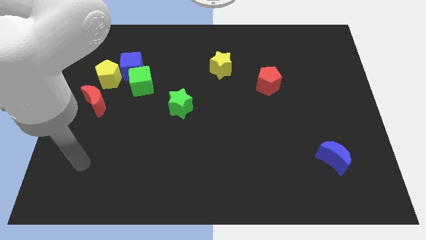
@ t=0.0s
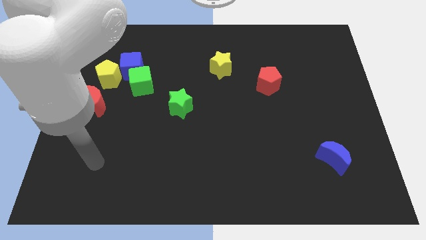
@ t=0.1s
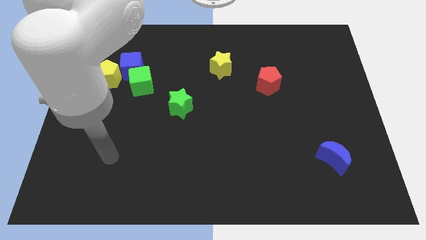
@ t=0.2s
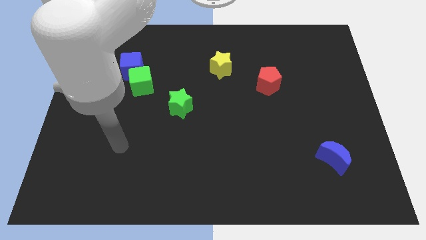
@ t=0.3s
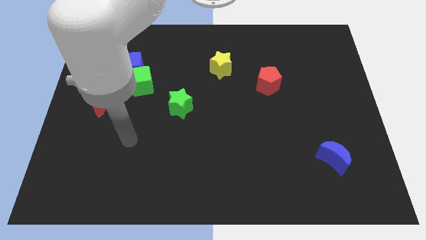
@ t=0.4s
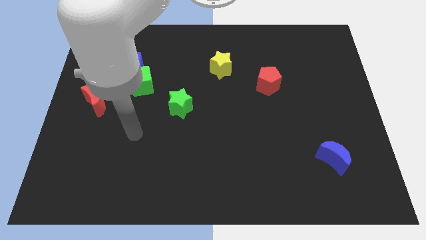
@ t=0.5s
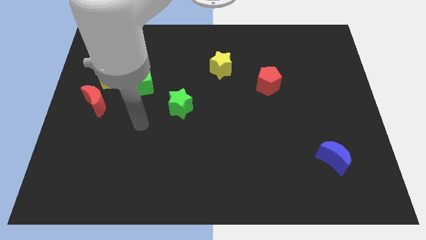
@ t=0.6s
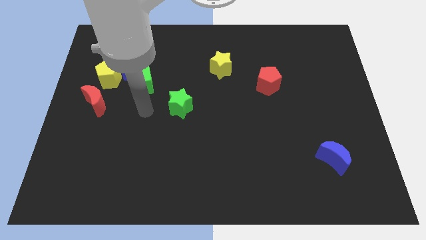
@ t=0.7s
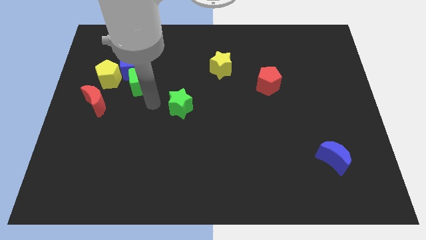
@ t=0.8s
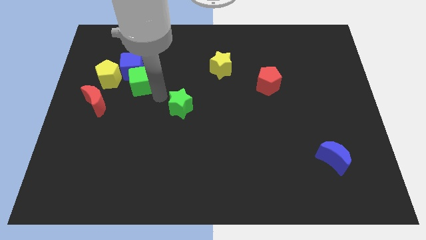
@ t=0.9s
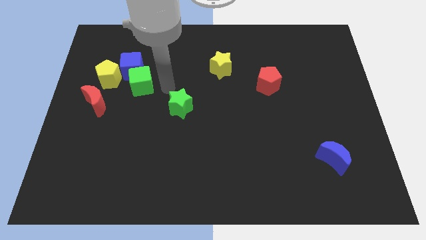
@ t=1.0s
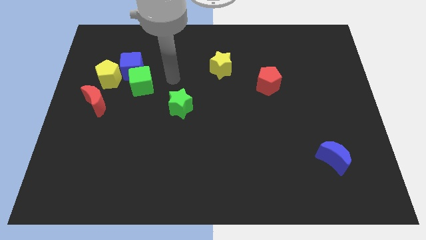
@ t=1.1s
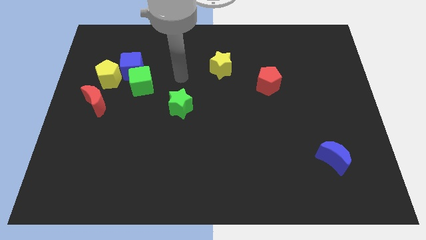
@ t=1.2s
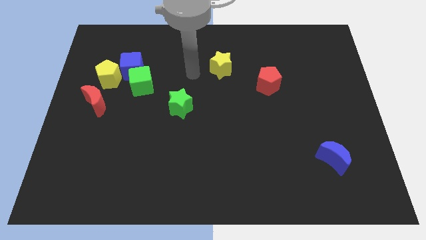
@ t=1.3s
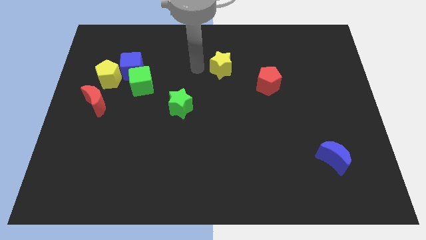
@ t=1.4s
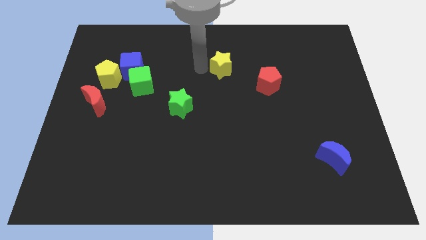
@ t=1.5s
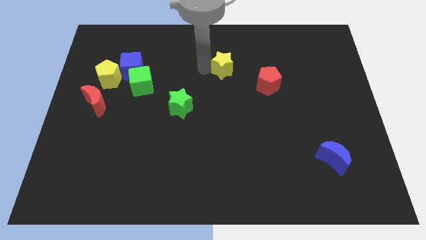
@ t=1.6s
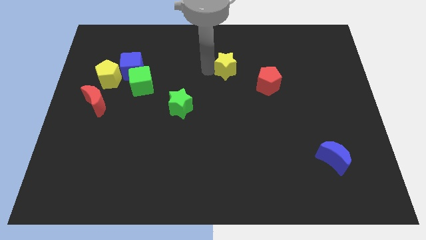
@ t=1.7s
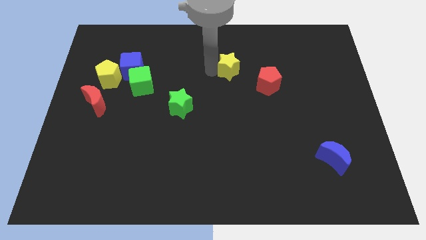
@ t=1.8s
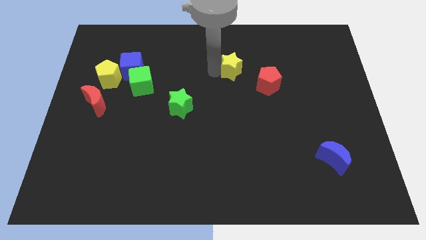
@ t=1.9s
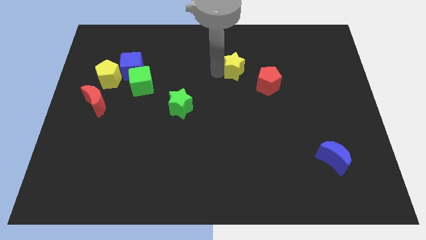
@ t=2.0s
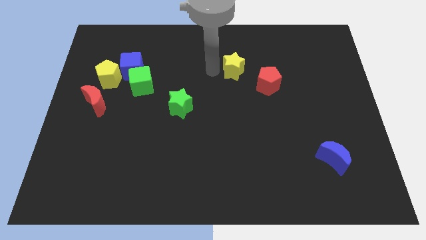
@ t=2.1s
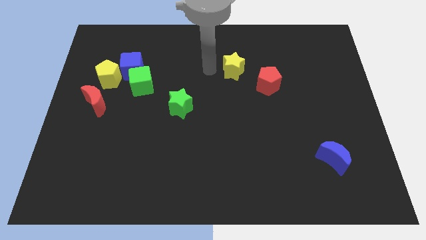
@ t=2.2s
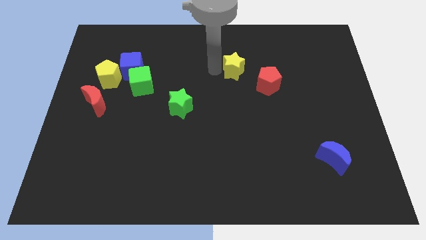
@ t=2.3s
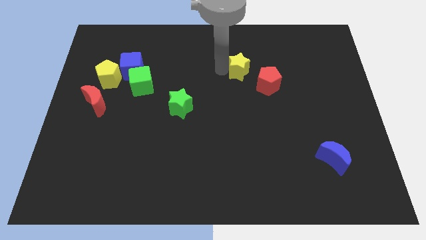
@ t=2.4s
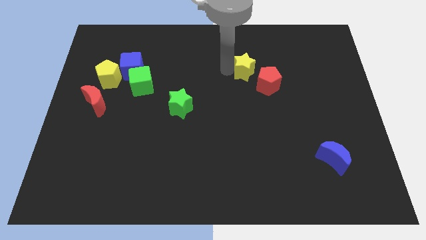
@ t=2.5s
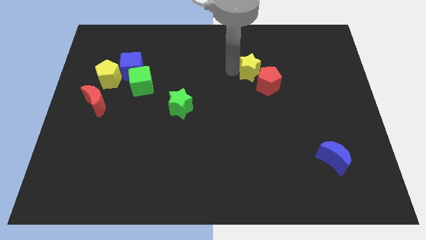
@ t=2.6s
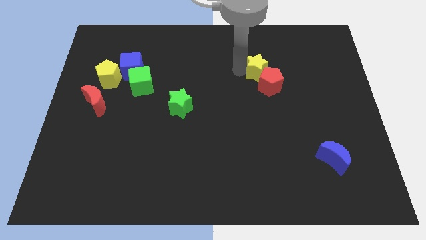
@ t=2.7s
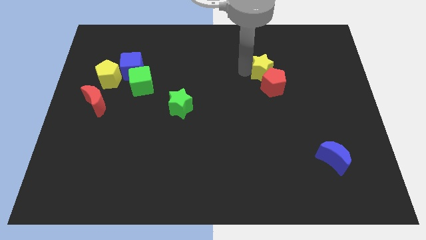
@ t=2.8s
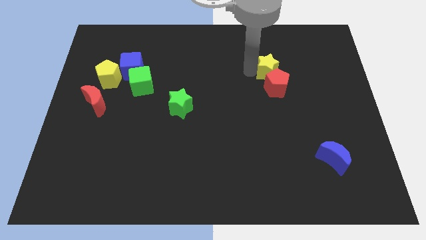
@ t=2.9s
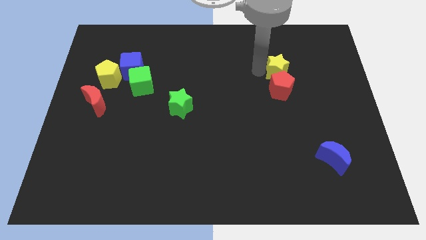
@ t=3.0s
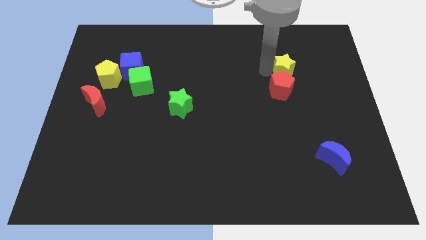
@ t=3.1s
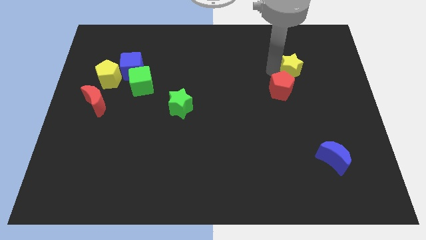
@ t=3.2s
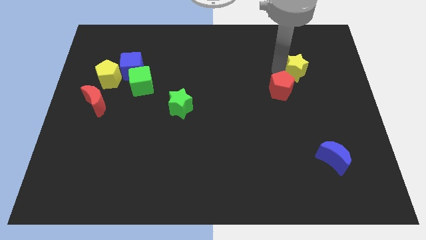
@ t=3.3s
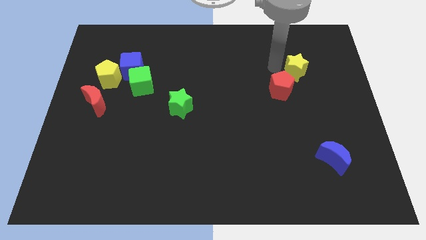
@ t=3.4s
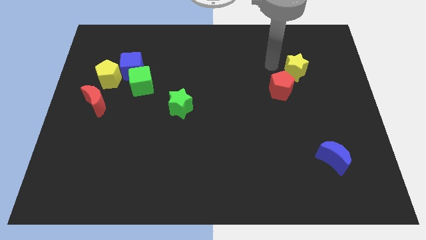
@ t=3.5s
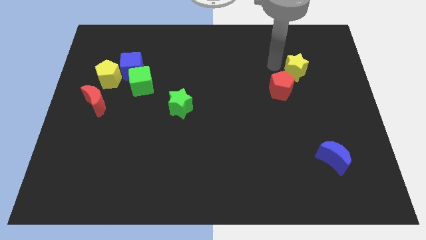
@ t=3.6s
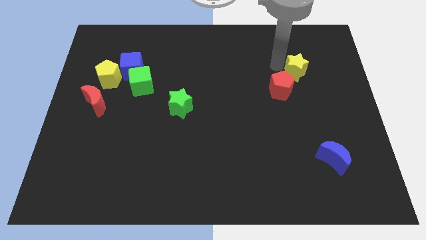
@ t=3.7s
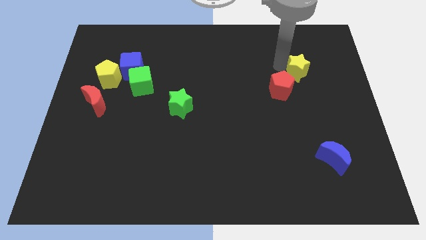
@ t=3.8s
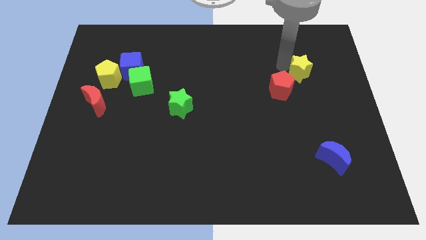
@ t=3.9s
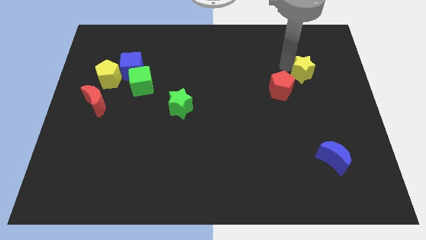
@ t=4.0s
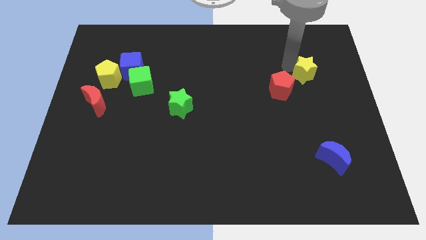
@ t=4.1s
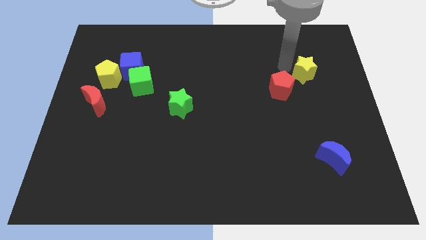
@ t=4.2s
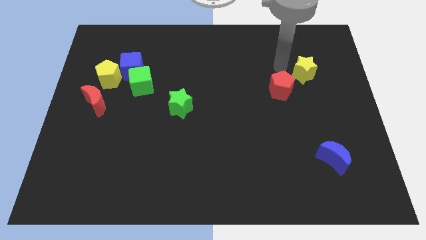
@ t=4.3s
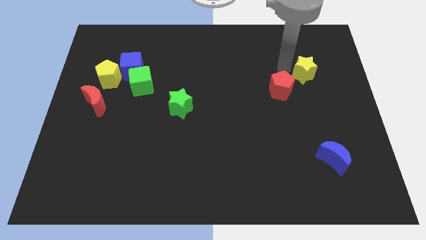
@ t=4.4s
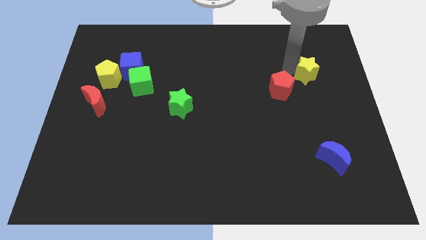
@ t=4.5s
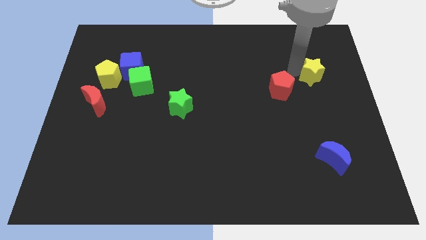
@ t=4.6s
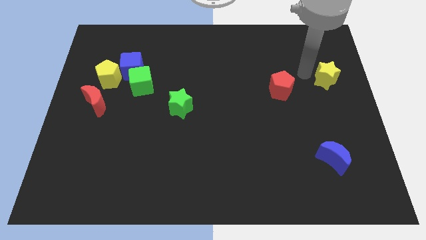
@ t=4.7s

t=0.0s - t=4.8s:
put the yellow star to the right side of the board

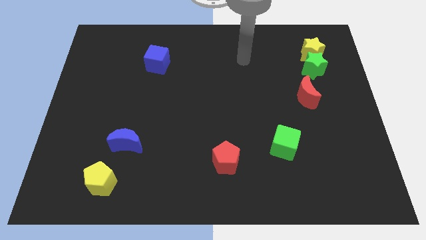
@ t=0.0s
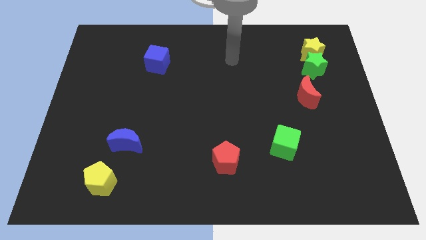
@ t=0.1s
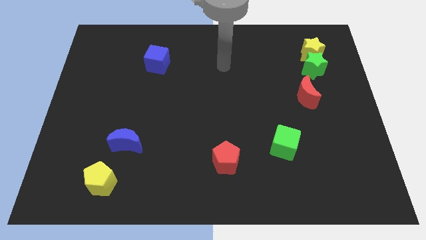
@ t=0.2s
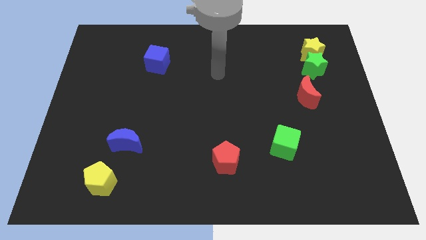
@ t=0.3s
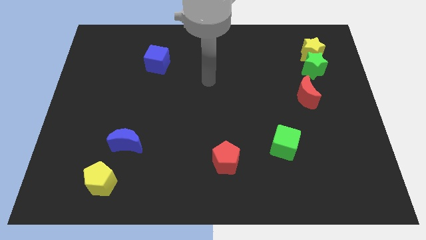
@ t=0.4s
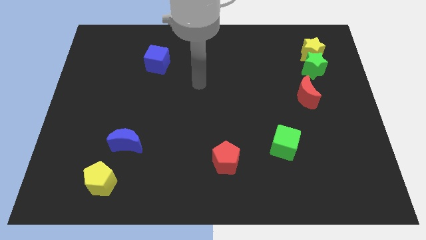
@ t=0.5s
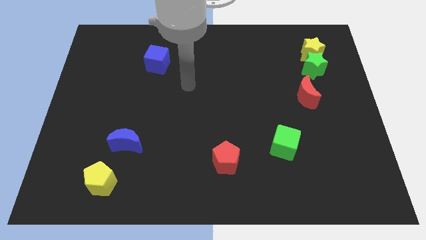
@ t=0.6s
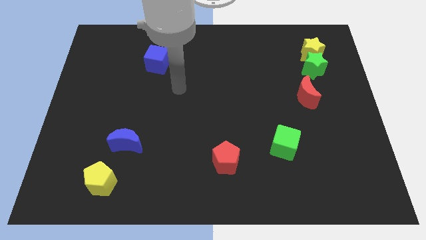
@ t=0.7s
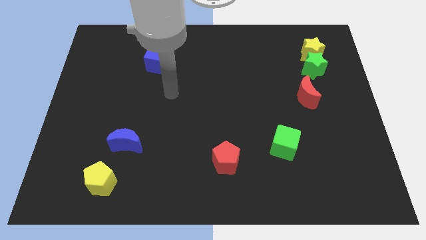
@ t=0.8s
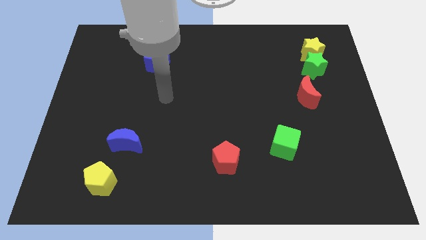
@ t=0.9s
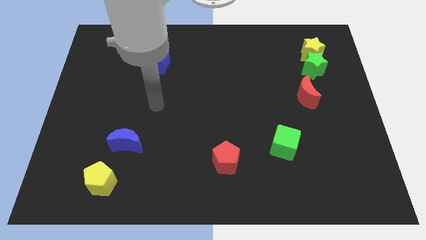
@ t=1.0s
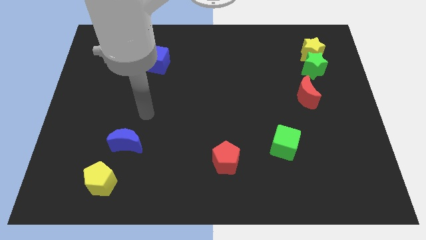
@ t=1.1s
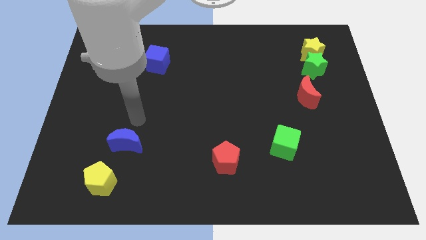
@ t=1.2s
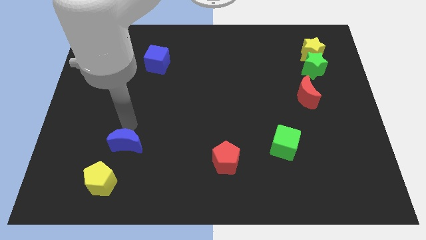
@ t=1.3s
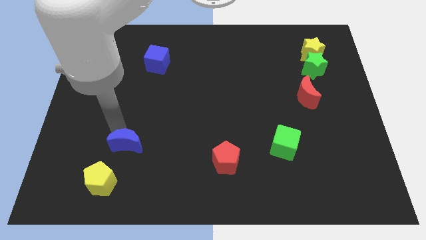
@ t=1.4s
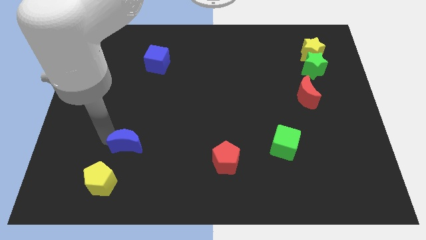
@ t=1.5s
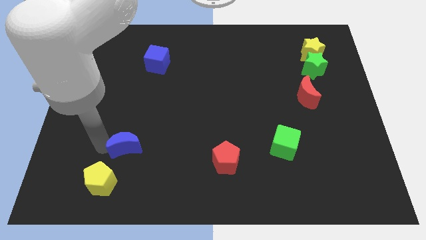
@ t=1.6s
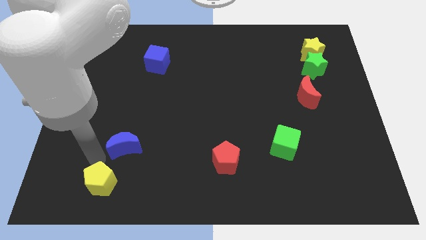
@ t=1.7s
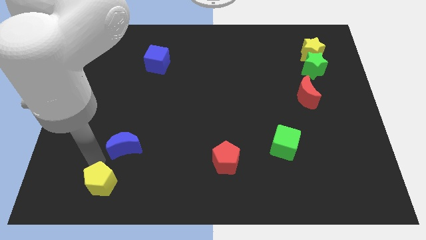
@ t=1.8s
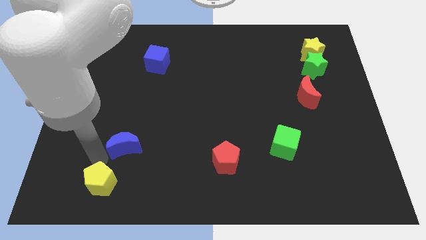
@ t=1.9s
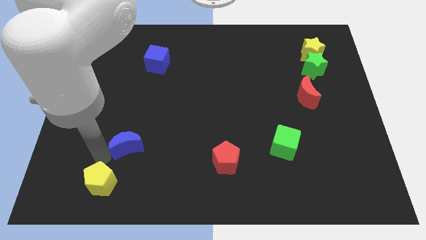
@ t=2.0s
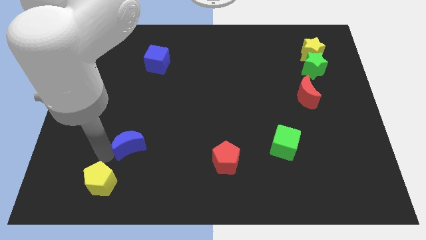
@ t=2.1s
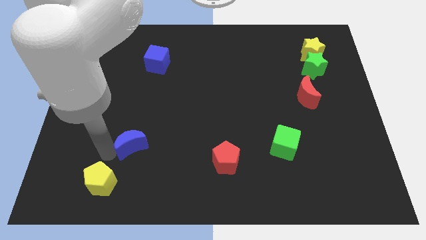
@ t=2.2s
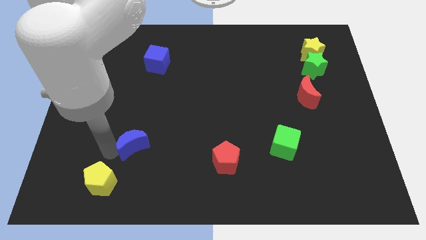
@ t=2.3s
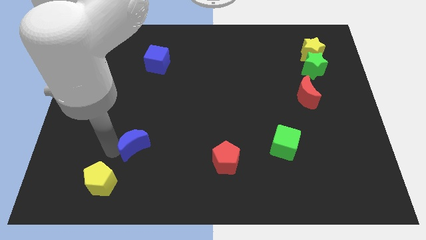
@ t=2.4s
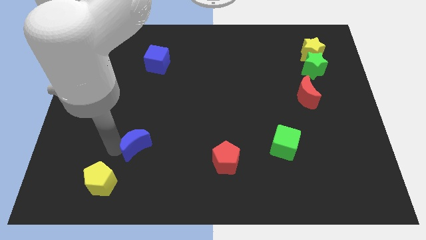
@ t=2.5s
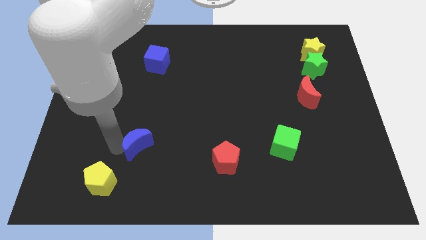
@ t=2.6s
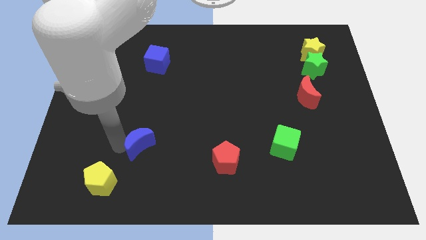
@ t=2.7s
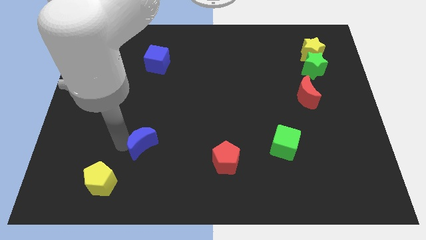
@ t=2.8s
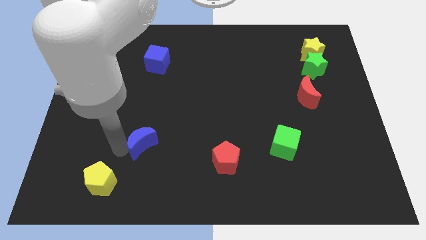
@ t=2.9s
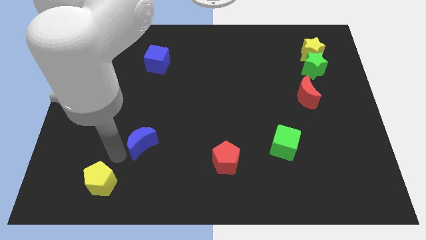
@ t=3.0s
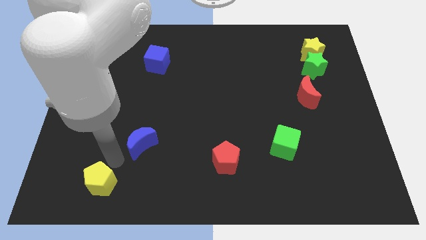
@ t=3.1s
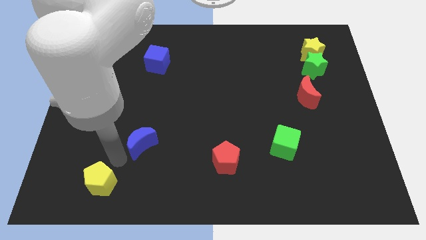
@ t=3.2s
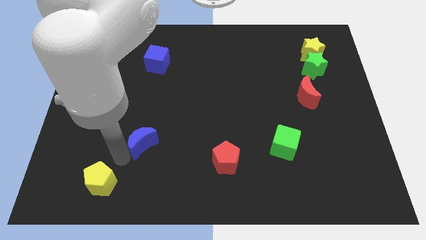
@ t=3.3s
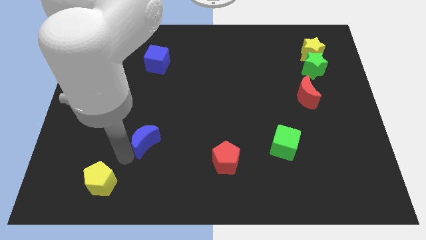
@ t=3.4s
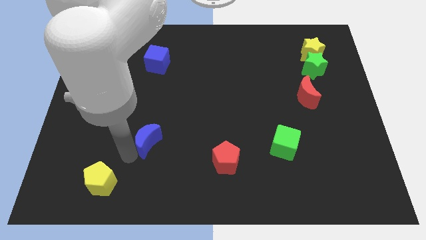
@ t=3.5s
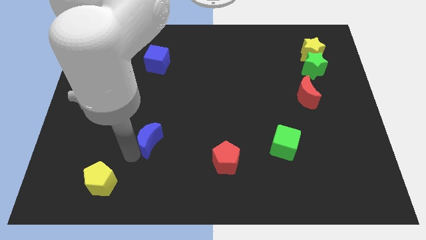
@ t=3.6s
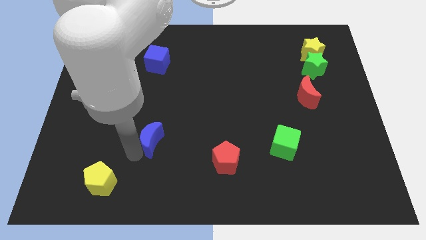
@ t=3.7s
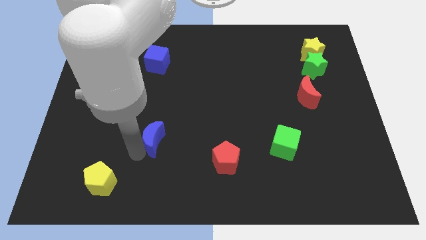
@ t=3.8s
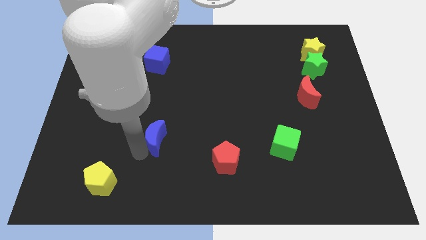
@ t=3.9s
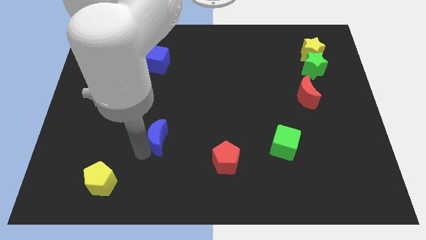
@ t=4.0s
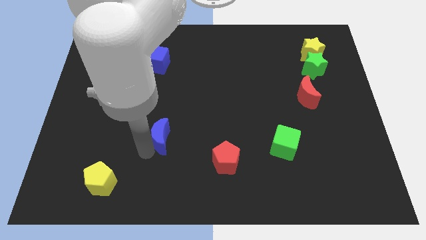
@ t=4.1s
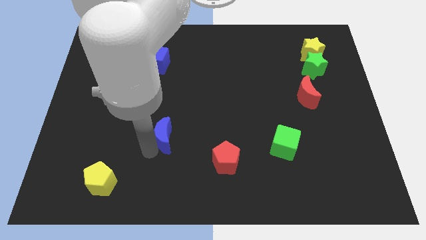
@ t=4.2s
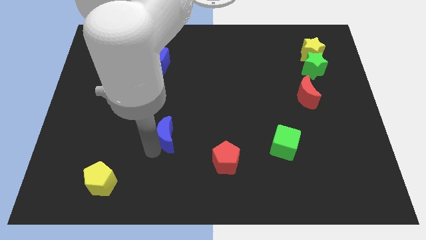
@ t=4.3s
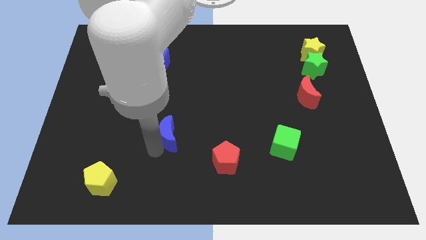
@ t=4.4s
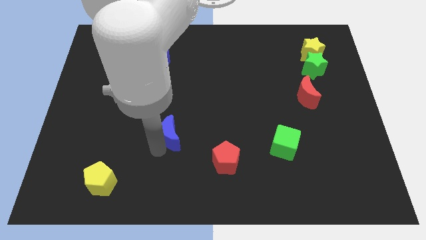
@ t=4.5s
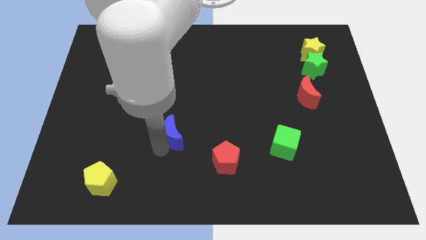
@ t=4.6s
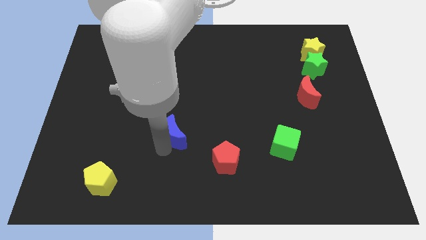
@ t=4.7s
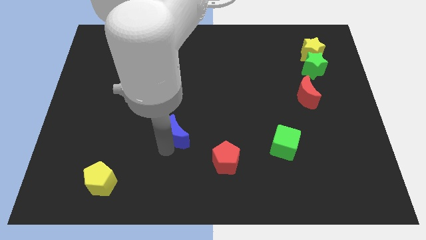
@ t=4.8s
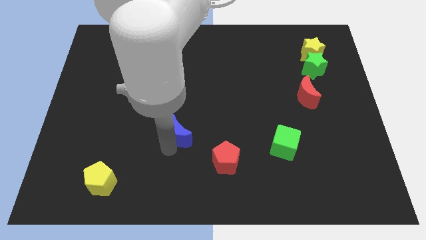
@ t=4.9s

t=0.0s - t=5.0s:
push the blue moon to the center
